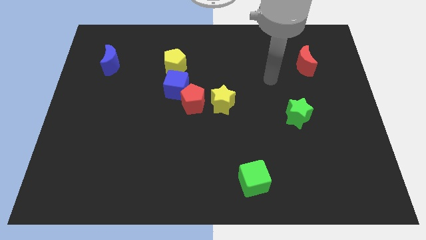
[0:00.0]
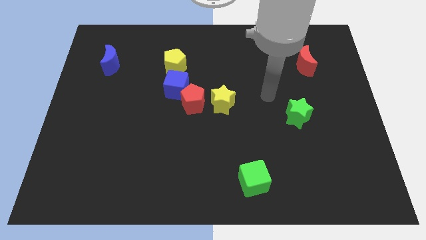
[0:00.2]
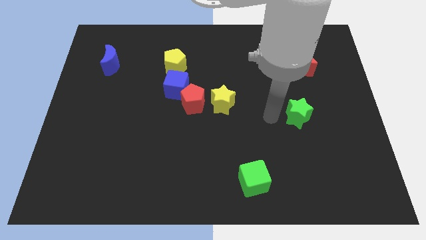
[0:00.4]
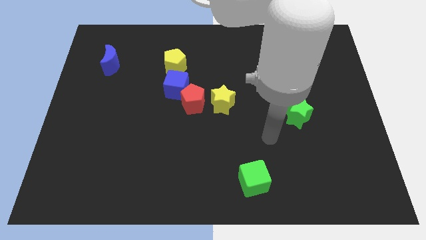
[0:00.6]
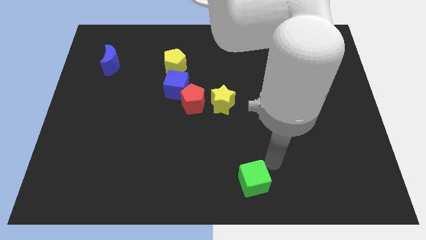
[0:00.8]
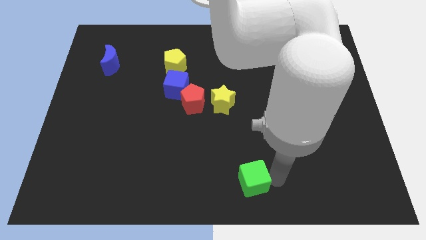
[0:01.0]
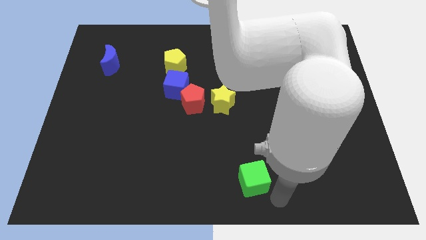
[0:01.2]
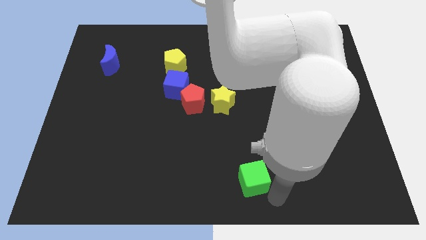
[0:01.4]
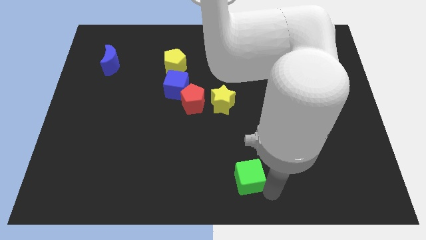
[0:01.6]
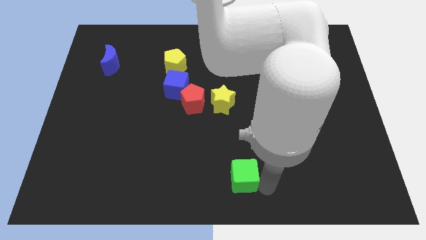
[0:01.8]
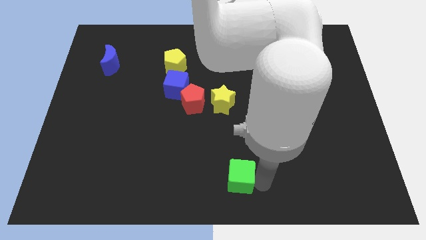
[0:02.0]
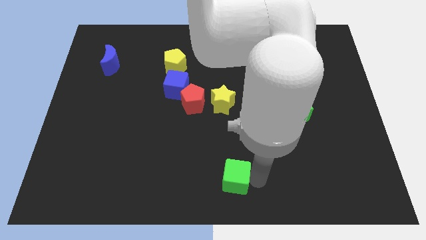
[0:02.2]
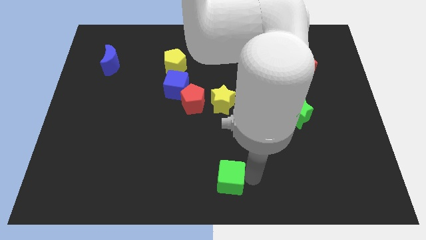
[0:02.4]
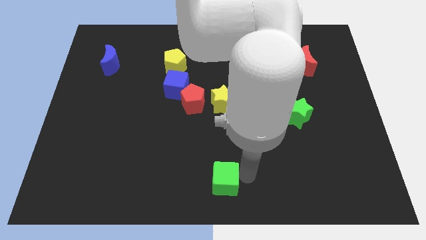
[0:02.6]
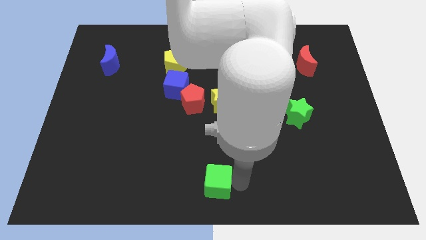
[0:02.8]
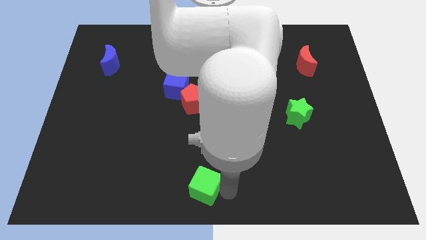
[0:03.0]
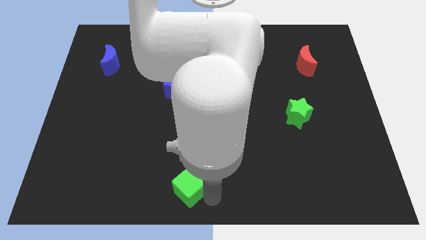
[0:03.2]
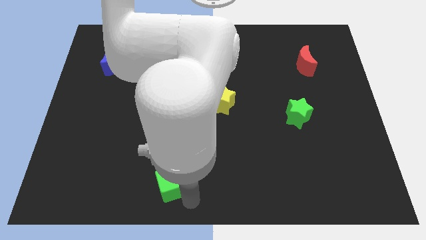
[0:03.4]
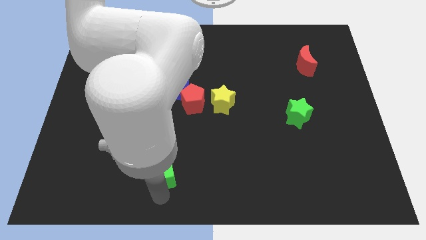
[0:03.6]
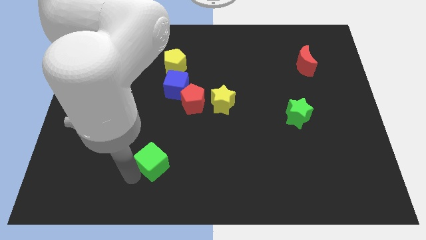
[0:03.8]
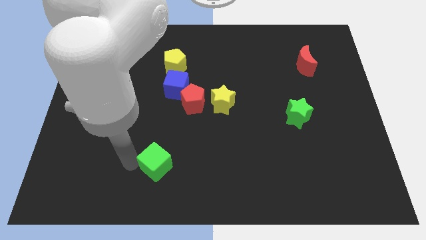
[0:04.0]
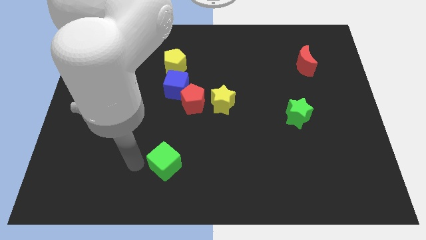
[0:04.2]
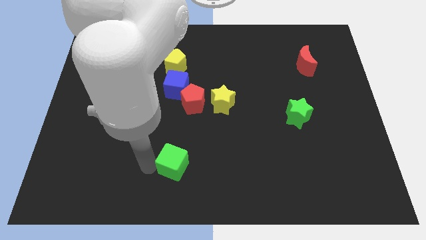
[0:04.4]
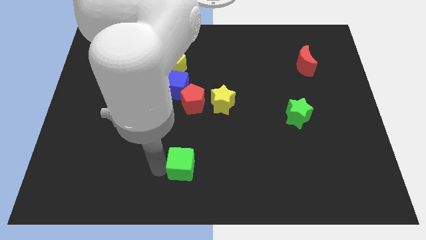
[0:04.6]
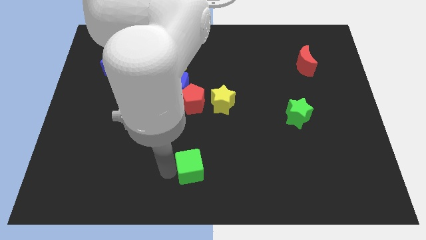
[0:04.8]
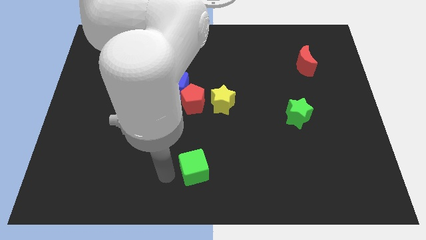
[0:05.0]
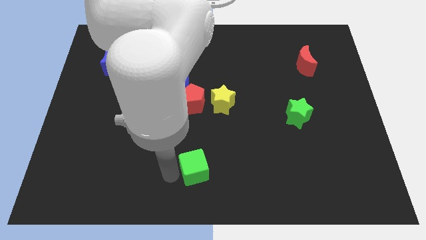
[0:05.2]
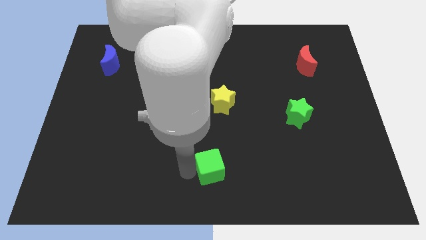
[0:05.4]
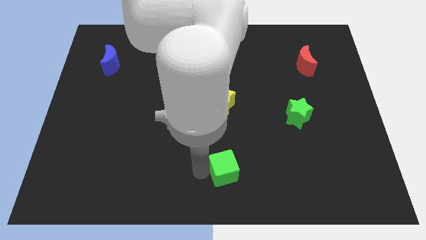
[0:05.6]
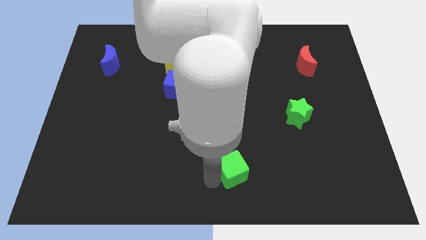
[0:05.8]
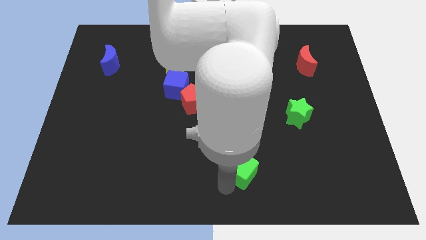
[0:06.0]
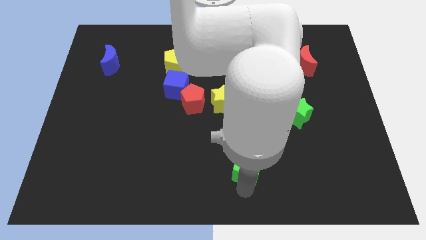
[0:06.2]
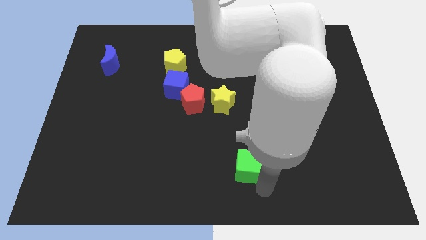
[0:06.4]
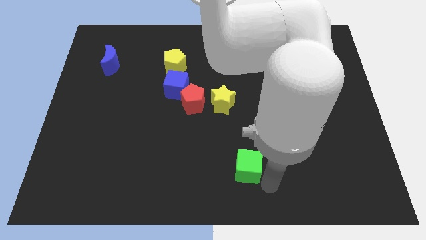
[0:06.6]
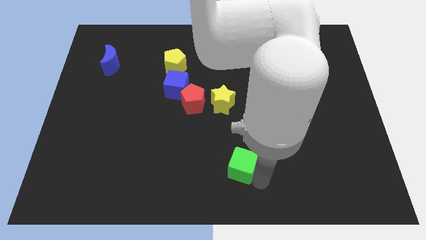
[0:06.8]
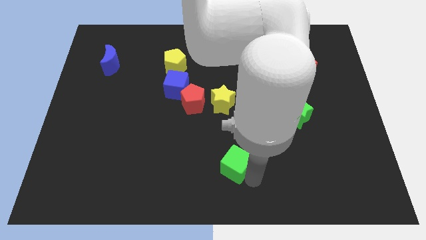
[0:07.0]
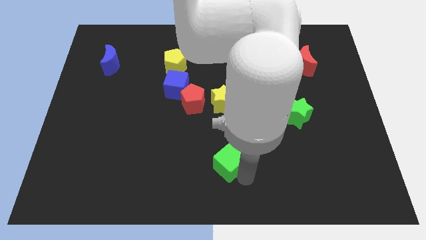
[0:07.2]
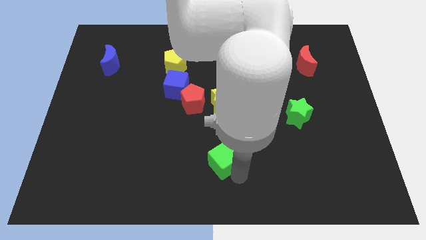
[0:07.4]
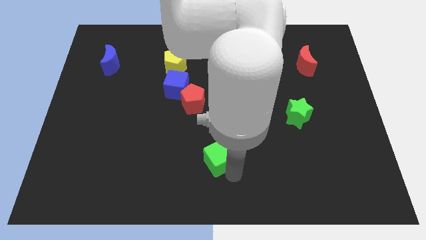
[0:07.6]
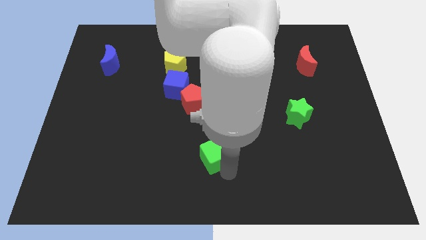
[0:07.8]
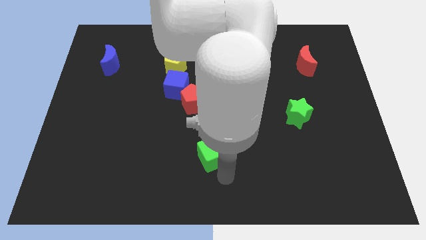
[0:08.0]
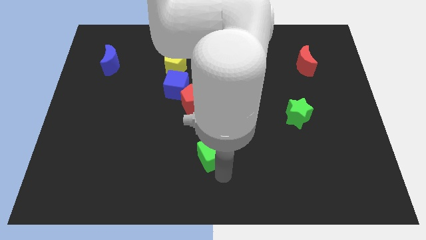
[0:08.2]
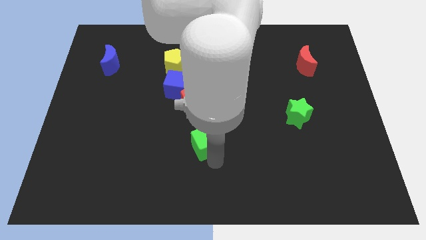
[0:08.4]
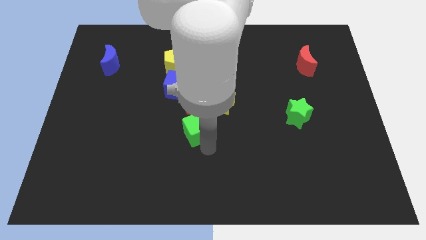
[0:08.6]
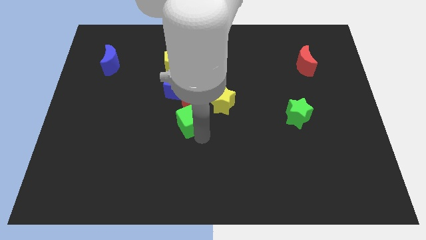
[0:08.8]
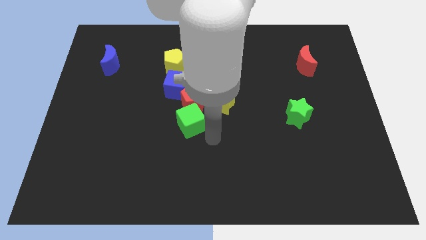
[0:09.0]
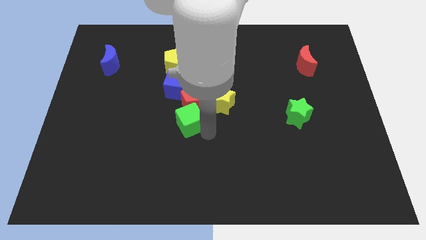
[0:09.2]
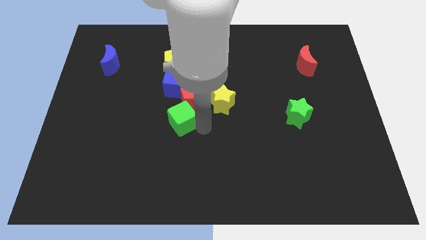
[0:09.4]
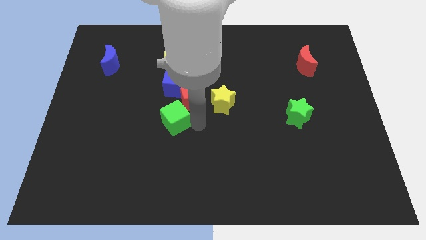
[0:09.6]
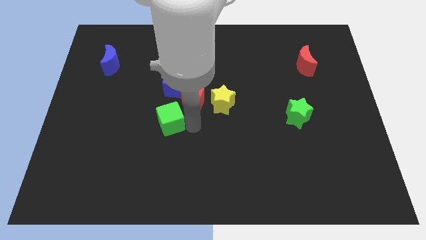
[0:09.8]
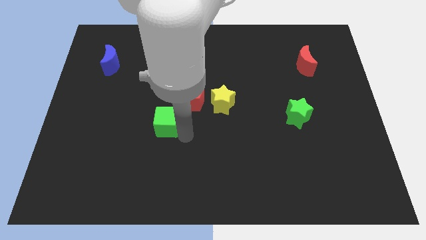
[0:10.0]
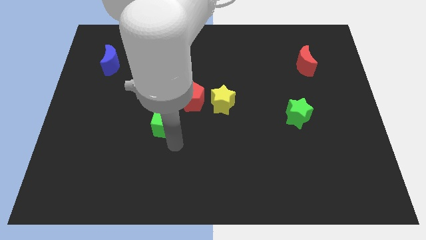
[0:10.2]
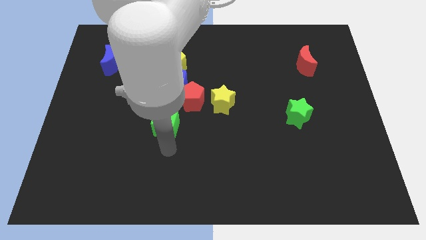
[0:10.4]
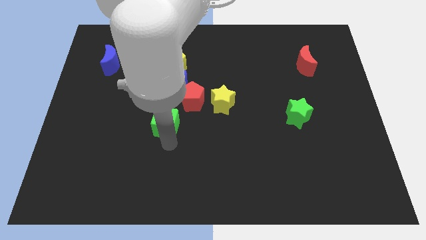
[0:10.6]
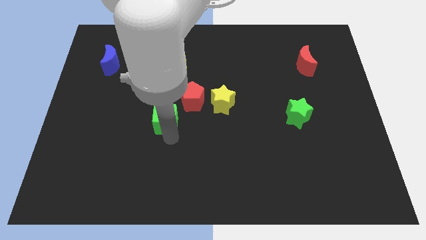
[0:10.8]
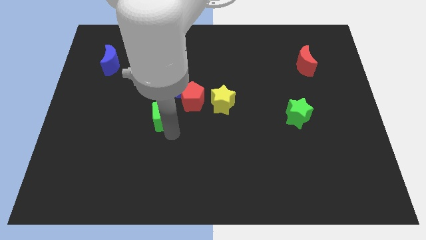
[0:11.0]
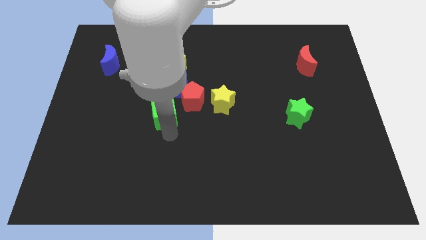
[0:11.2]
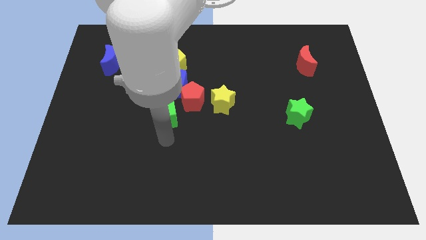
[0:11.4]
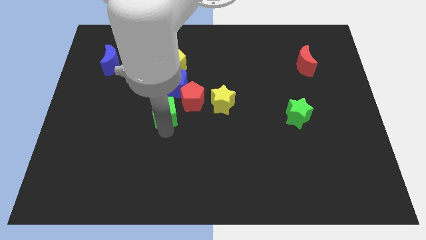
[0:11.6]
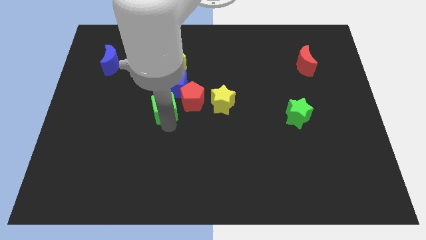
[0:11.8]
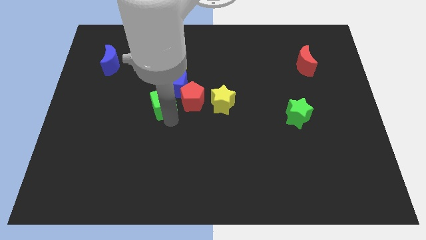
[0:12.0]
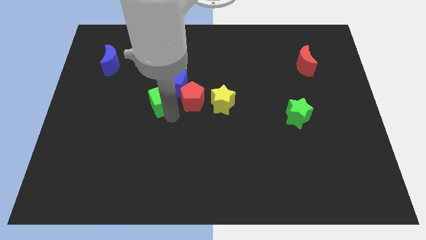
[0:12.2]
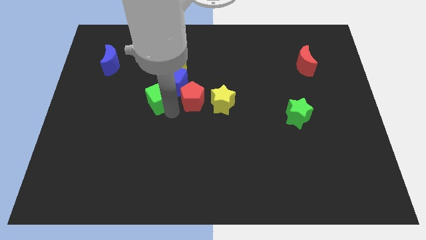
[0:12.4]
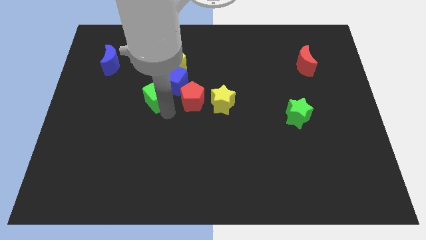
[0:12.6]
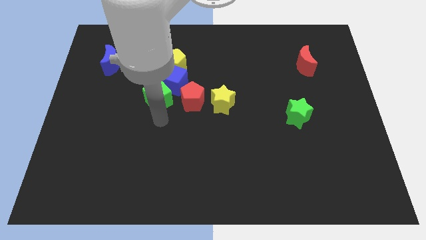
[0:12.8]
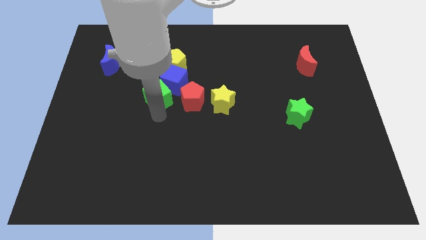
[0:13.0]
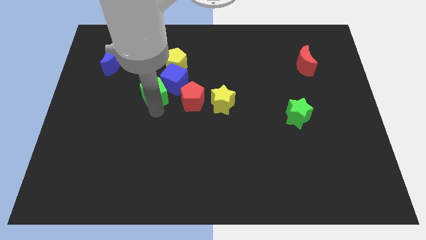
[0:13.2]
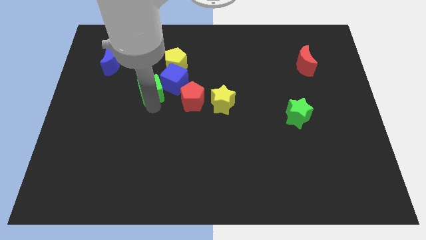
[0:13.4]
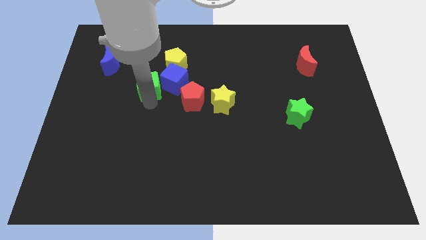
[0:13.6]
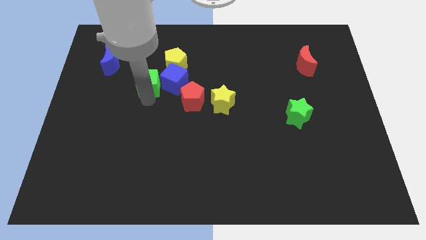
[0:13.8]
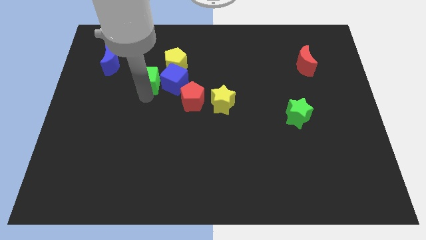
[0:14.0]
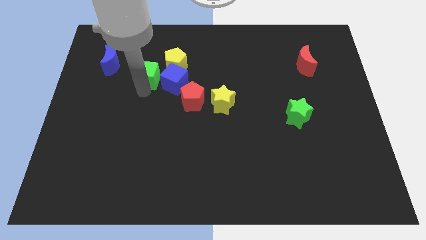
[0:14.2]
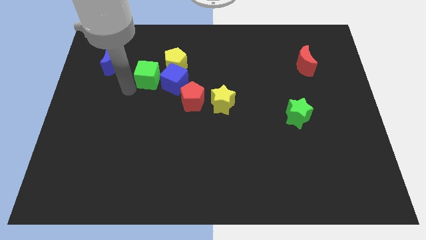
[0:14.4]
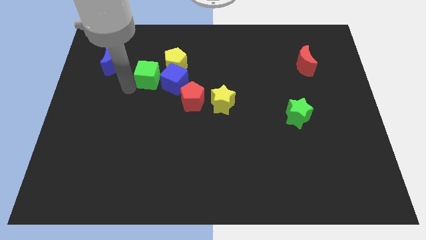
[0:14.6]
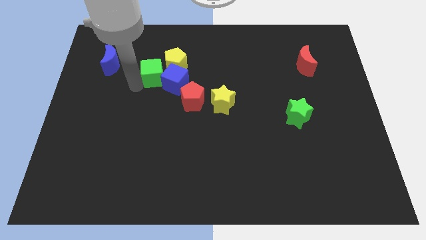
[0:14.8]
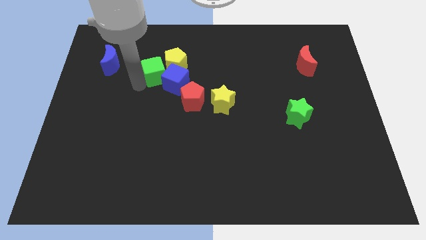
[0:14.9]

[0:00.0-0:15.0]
move the green cube to the yellow pentagon

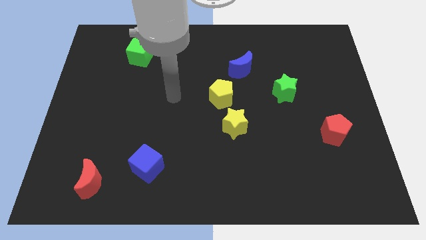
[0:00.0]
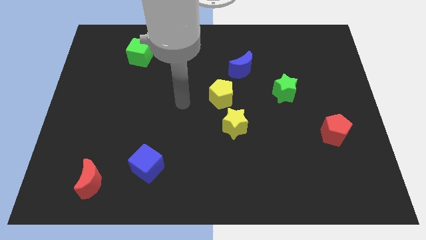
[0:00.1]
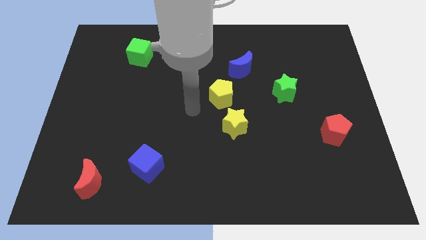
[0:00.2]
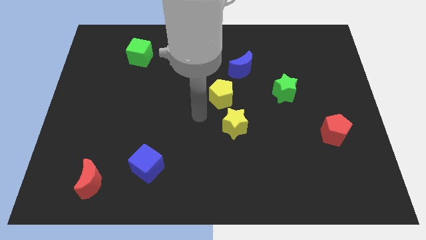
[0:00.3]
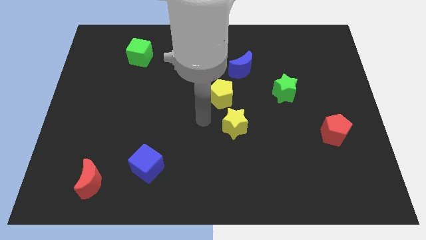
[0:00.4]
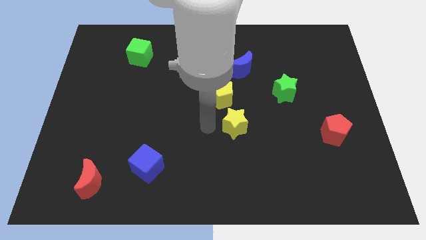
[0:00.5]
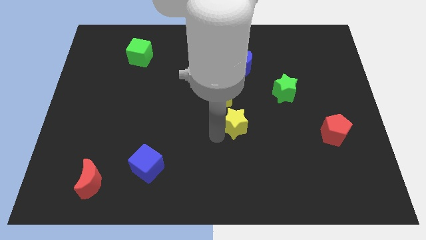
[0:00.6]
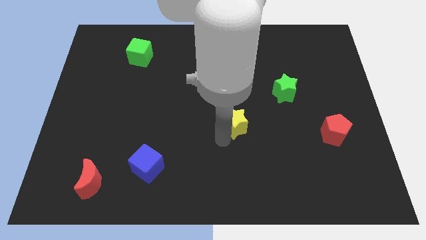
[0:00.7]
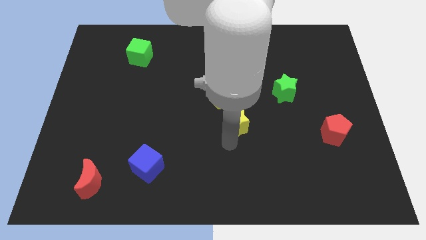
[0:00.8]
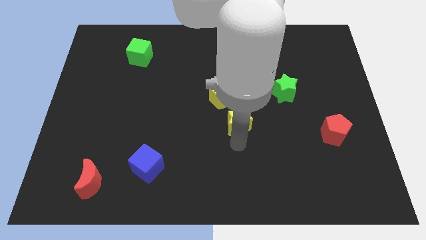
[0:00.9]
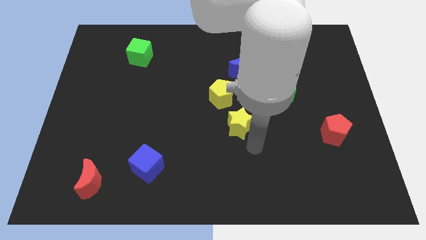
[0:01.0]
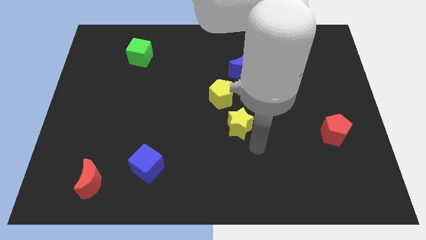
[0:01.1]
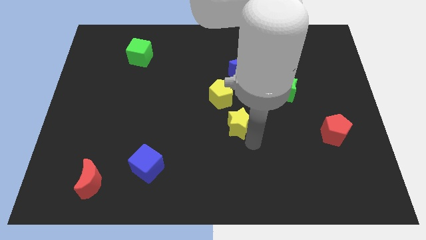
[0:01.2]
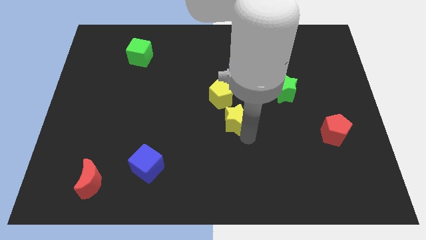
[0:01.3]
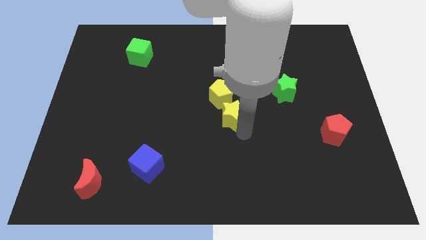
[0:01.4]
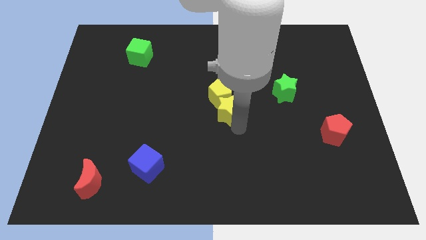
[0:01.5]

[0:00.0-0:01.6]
move the yellow star to the yellow pentagon
